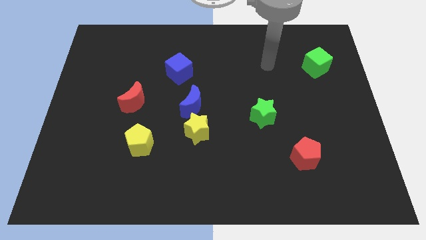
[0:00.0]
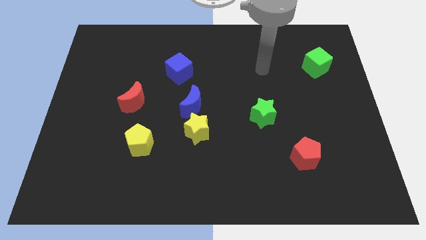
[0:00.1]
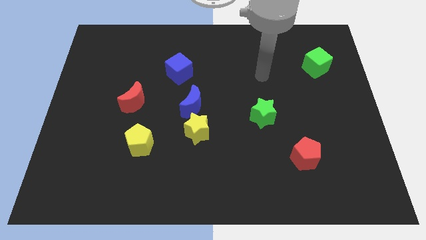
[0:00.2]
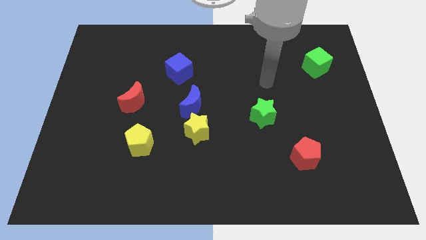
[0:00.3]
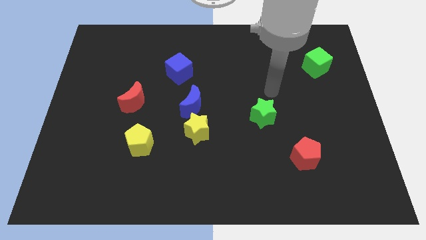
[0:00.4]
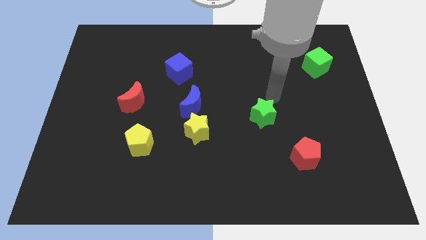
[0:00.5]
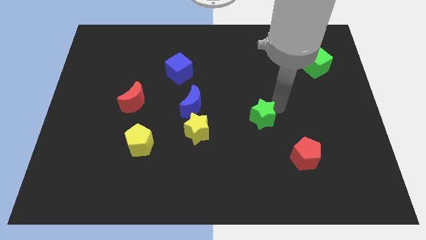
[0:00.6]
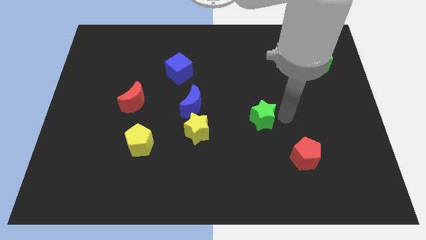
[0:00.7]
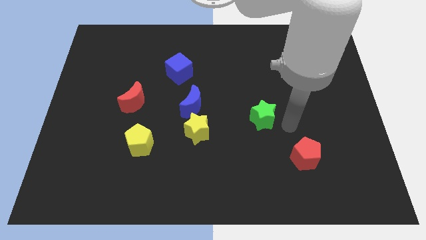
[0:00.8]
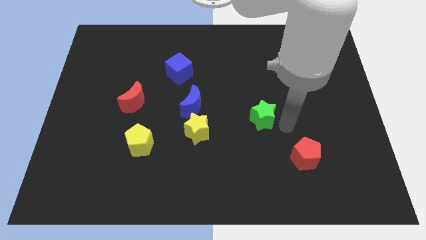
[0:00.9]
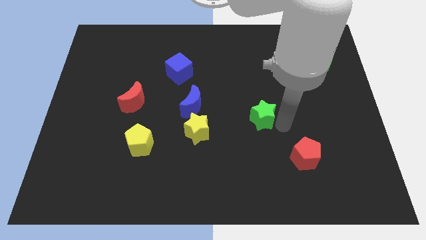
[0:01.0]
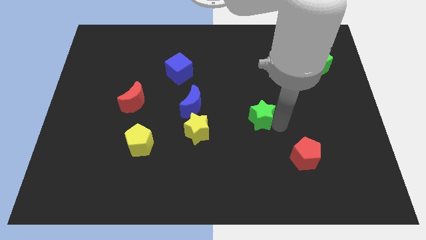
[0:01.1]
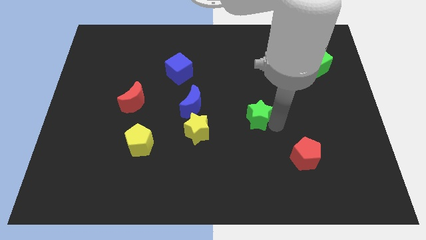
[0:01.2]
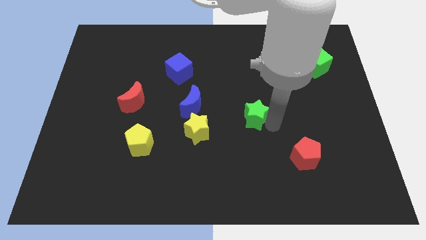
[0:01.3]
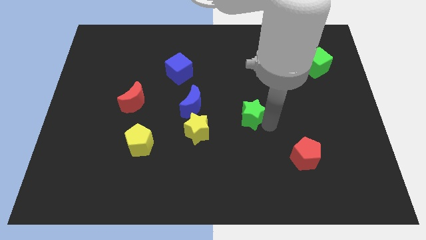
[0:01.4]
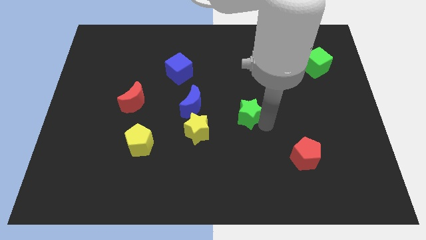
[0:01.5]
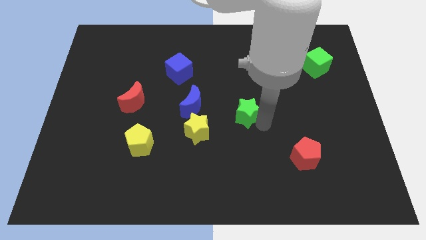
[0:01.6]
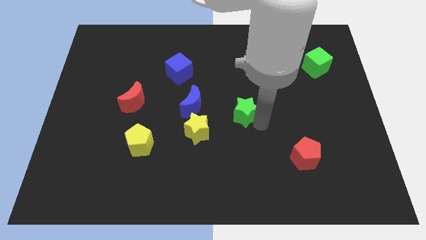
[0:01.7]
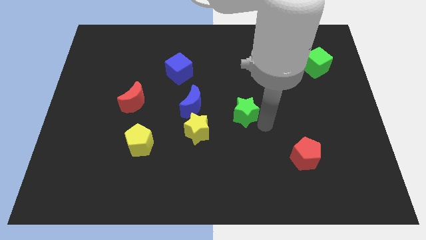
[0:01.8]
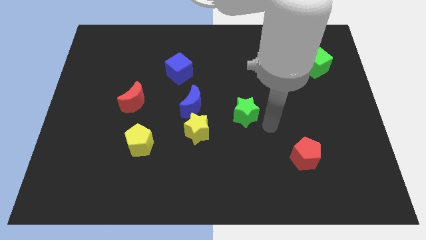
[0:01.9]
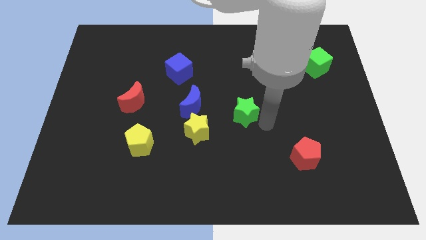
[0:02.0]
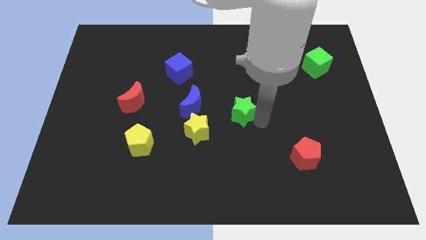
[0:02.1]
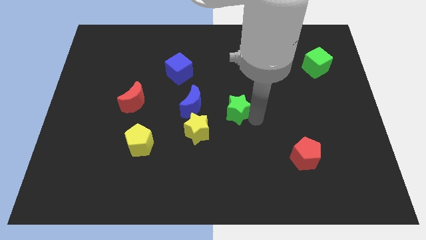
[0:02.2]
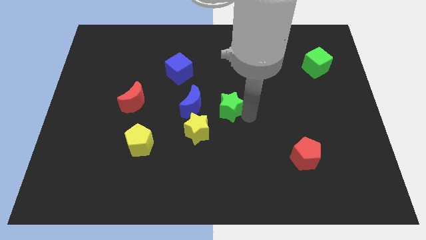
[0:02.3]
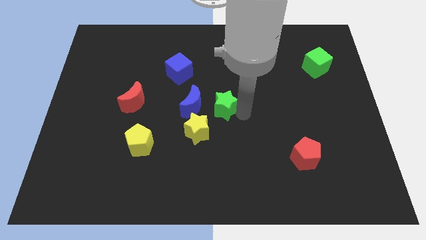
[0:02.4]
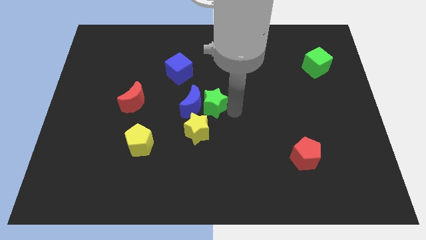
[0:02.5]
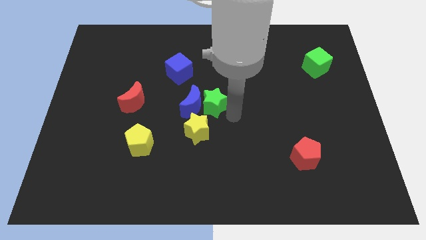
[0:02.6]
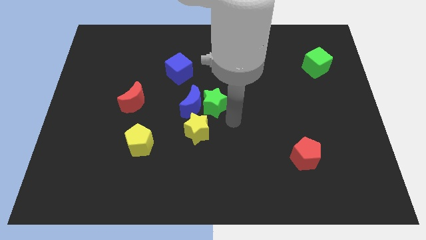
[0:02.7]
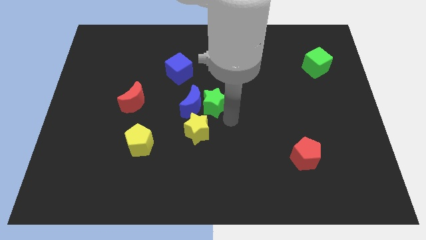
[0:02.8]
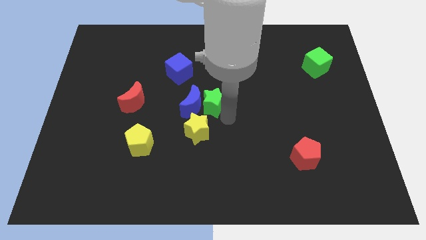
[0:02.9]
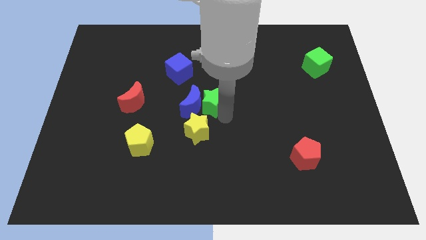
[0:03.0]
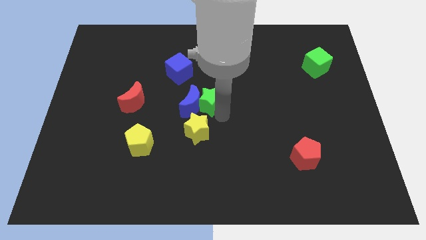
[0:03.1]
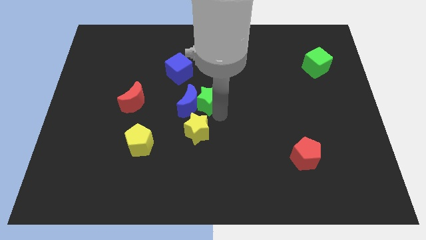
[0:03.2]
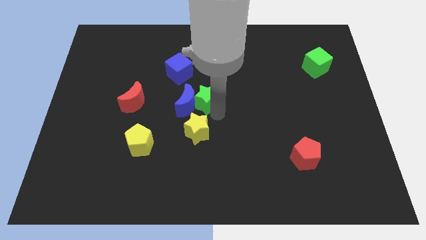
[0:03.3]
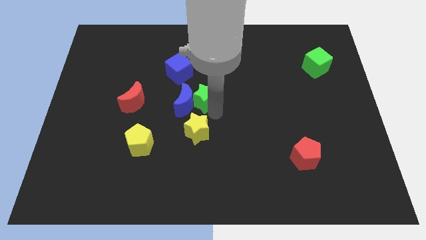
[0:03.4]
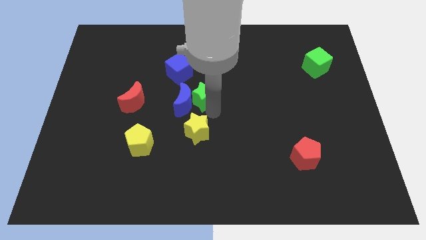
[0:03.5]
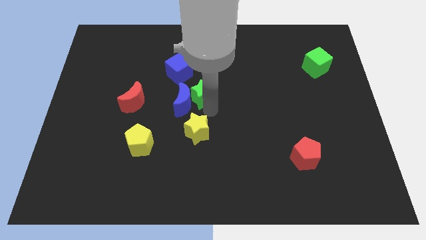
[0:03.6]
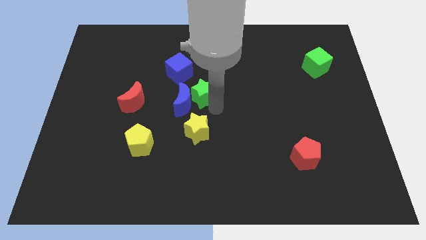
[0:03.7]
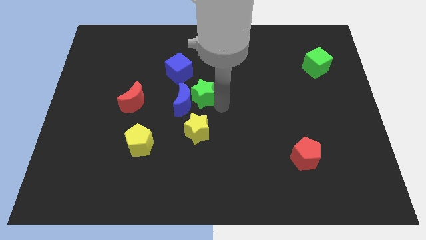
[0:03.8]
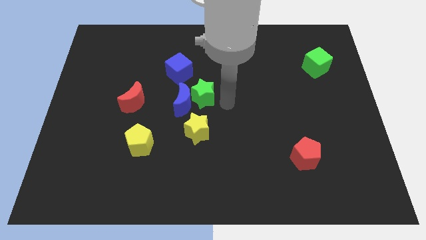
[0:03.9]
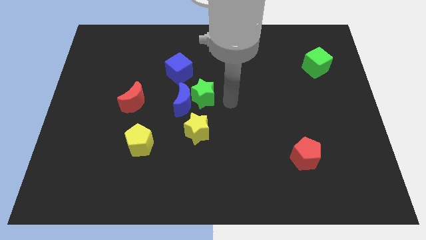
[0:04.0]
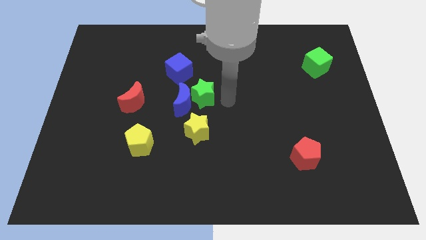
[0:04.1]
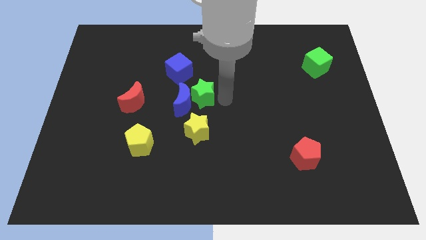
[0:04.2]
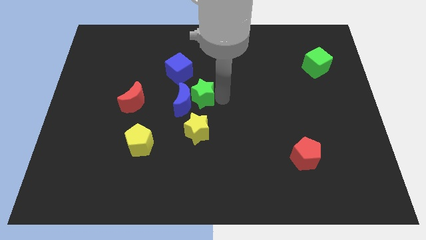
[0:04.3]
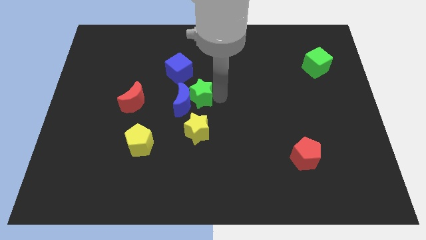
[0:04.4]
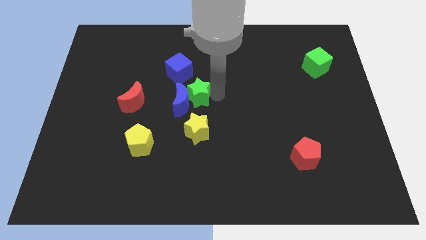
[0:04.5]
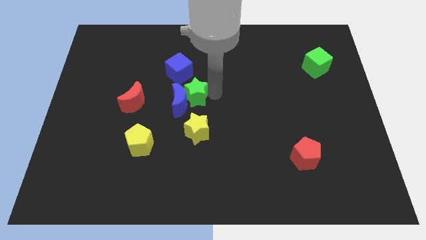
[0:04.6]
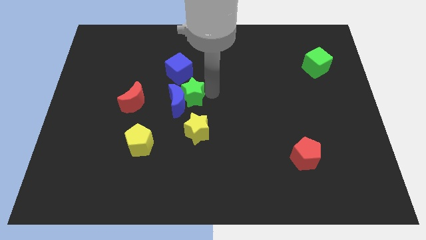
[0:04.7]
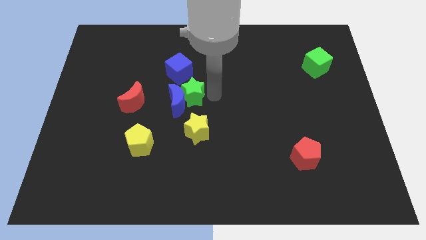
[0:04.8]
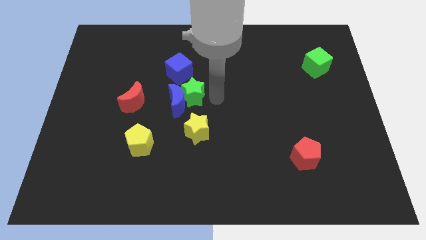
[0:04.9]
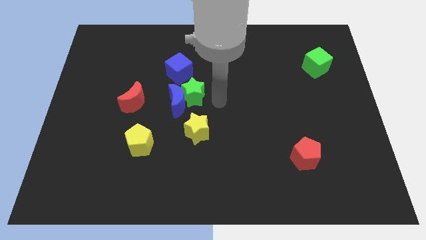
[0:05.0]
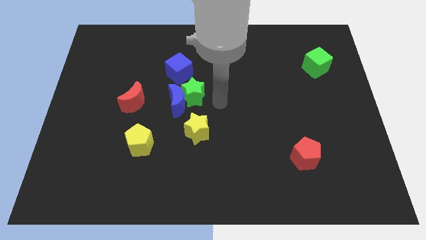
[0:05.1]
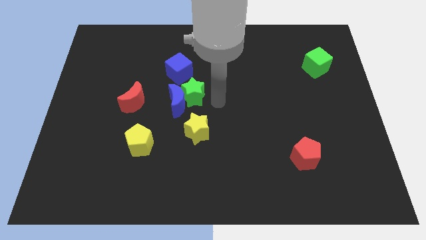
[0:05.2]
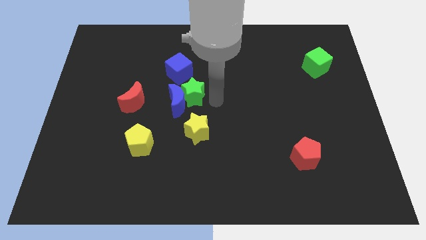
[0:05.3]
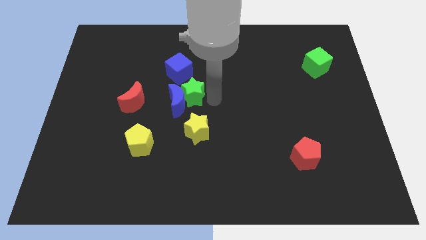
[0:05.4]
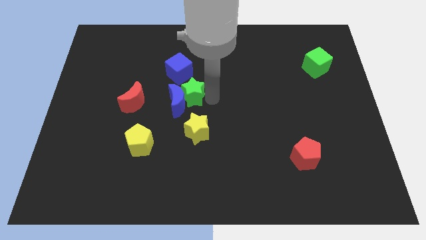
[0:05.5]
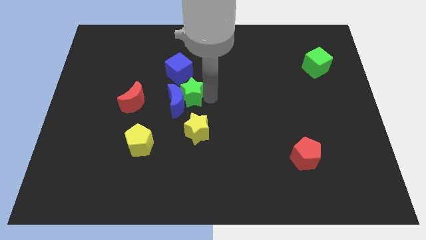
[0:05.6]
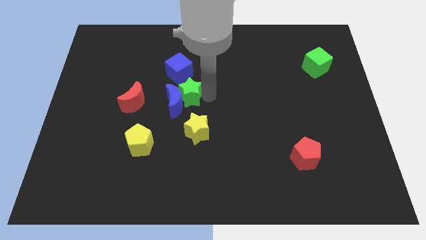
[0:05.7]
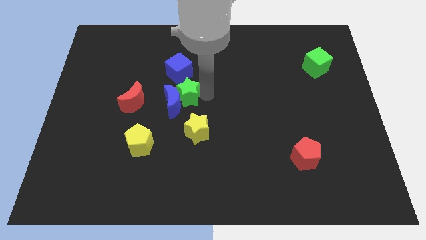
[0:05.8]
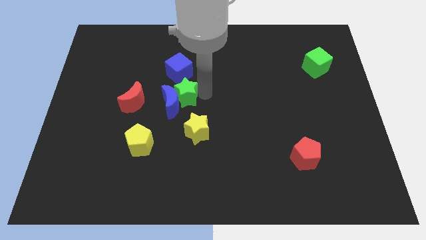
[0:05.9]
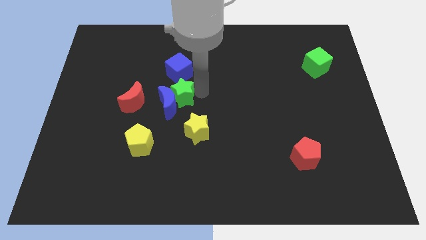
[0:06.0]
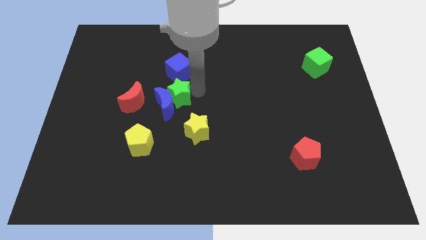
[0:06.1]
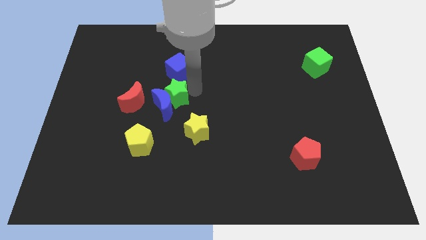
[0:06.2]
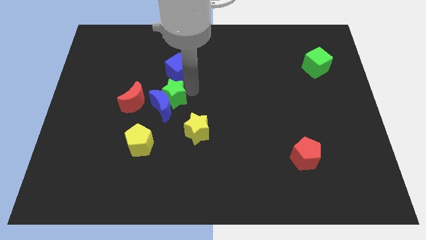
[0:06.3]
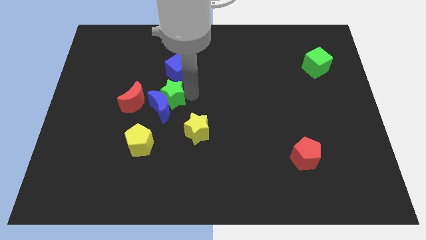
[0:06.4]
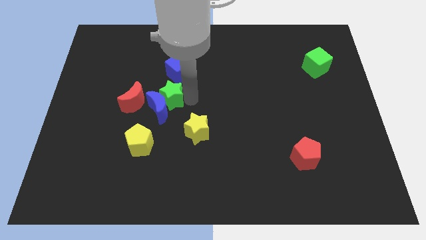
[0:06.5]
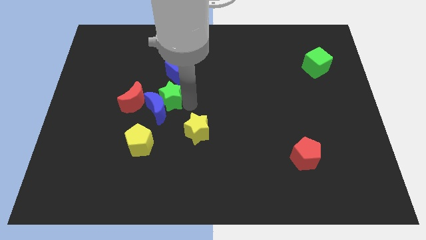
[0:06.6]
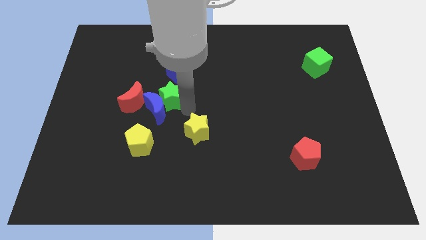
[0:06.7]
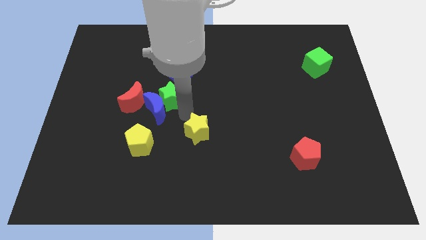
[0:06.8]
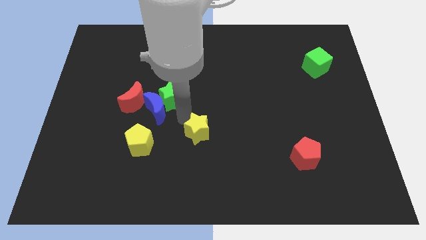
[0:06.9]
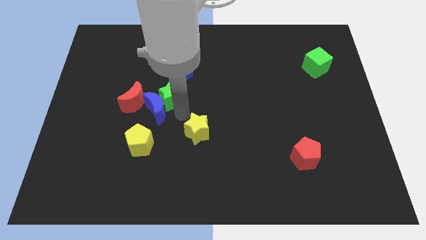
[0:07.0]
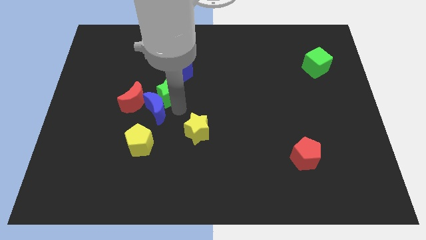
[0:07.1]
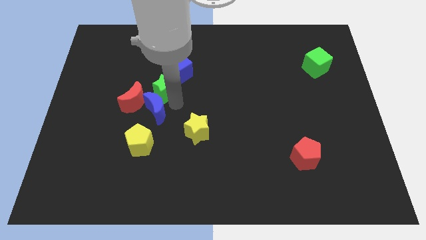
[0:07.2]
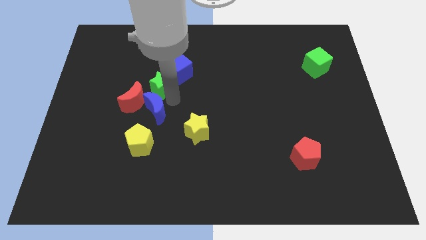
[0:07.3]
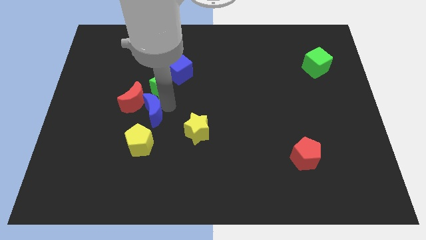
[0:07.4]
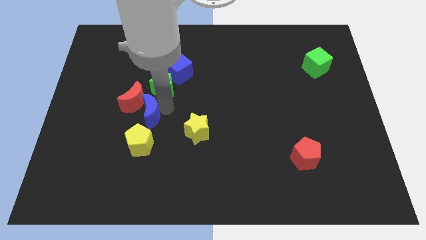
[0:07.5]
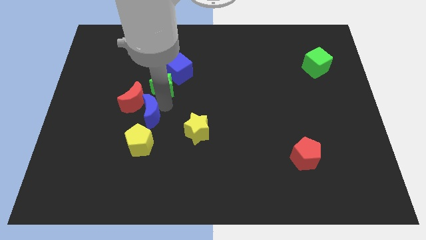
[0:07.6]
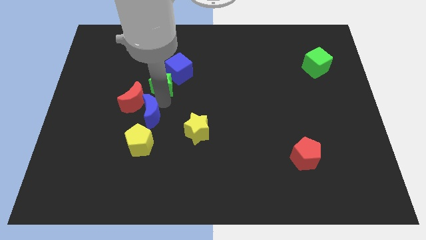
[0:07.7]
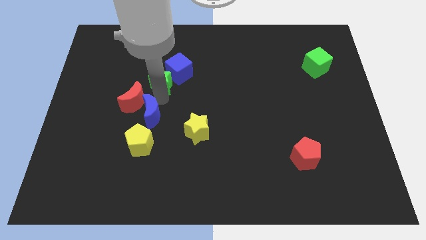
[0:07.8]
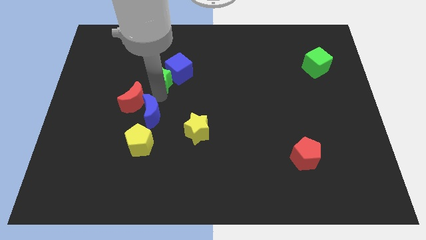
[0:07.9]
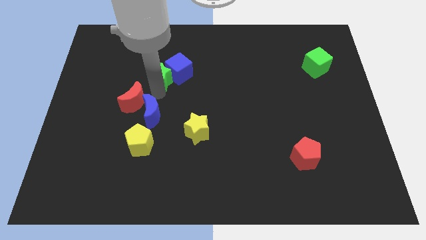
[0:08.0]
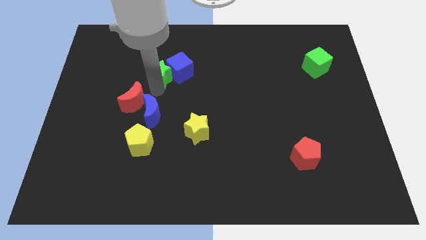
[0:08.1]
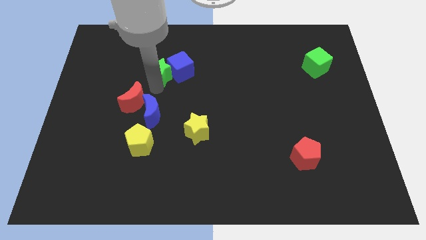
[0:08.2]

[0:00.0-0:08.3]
push the green star diagonally up and to the left of the blue cube
